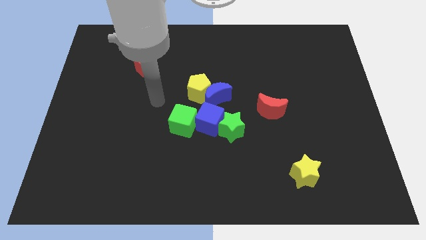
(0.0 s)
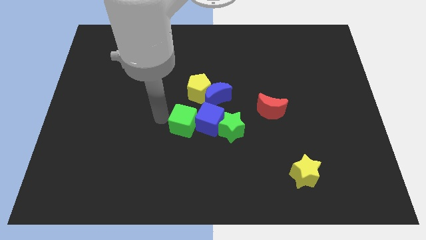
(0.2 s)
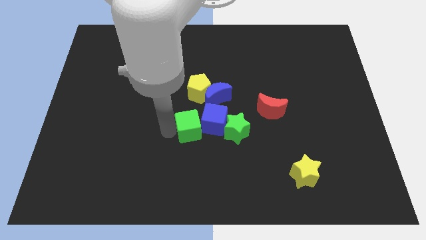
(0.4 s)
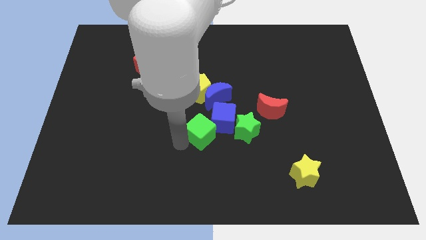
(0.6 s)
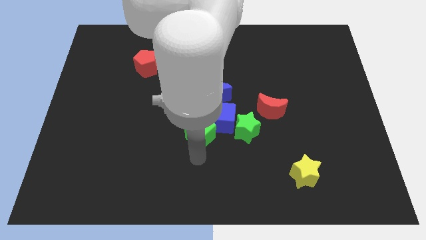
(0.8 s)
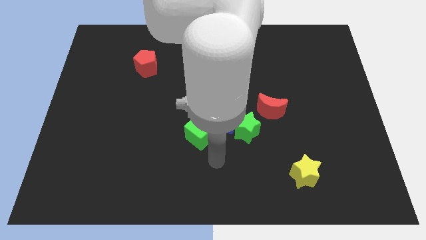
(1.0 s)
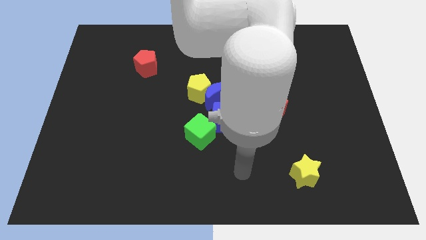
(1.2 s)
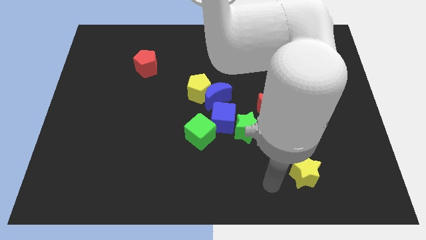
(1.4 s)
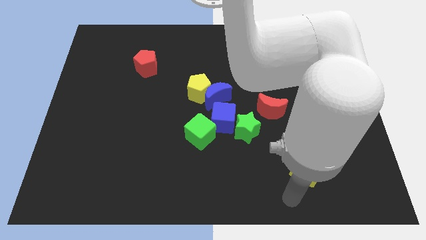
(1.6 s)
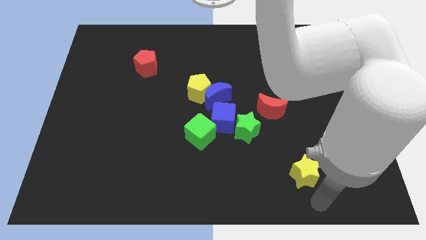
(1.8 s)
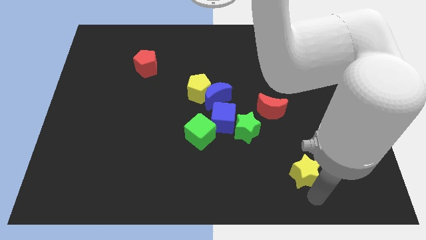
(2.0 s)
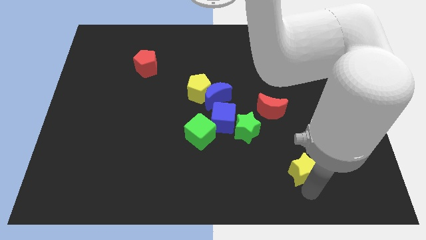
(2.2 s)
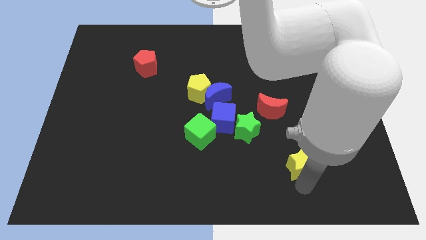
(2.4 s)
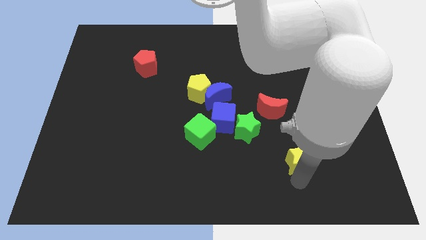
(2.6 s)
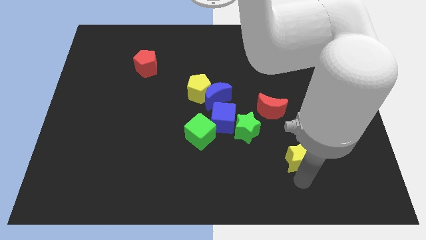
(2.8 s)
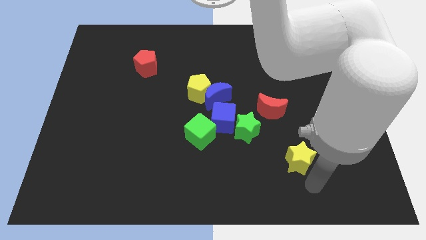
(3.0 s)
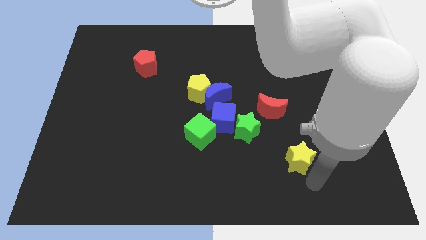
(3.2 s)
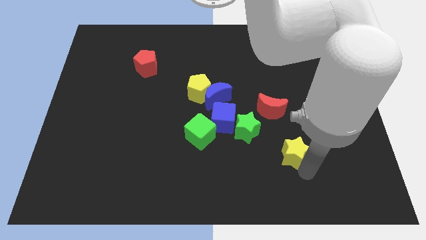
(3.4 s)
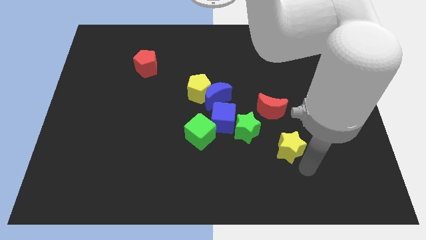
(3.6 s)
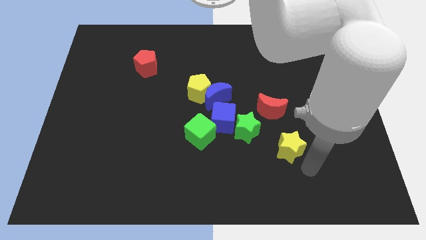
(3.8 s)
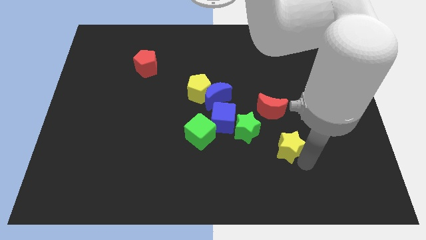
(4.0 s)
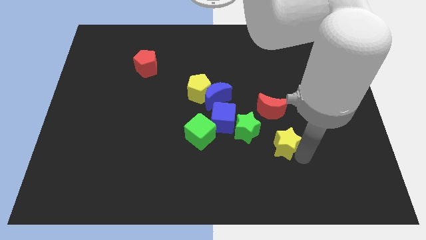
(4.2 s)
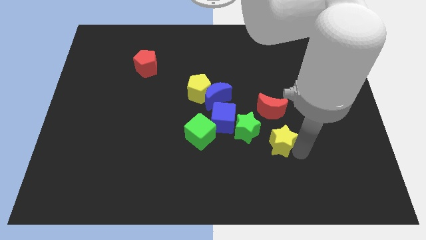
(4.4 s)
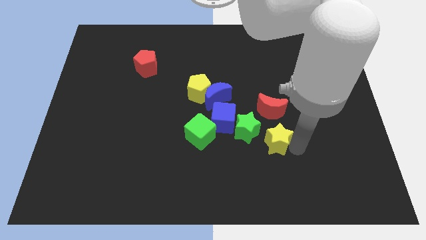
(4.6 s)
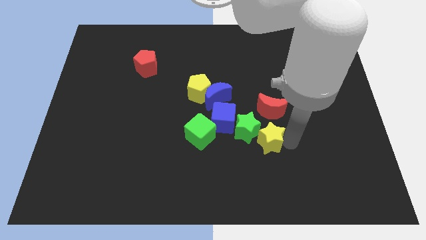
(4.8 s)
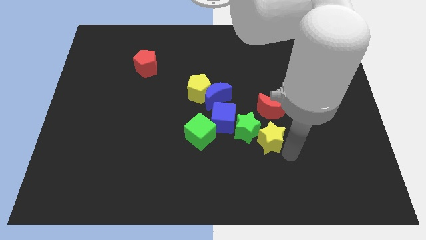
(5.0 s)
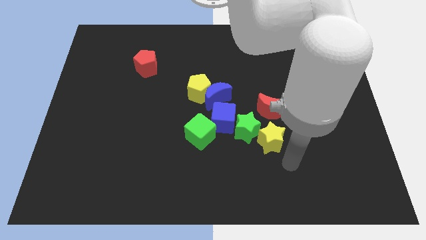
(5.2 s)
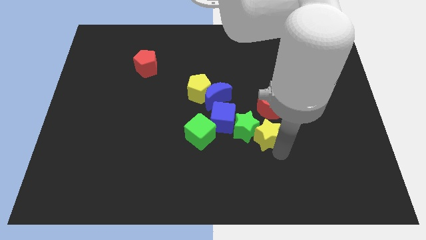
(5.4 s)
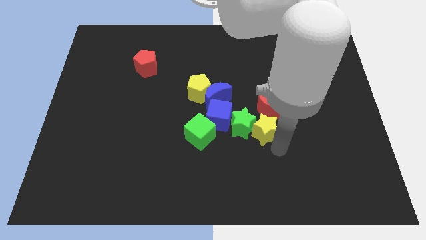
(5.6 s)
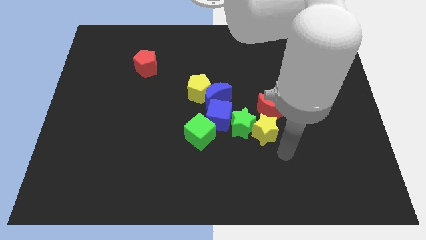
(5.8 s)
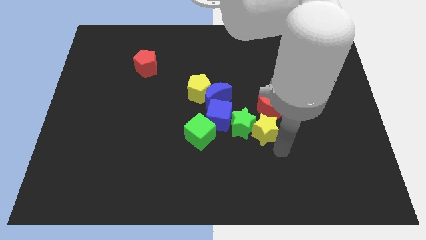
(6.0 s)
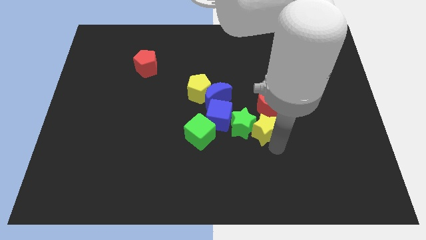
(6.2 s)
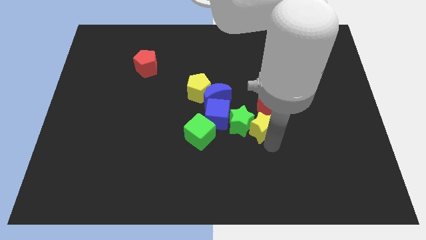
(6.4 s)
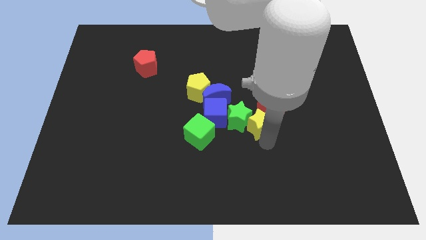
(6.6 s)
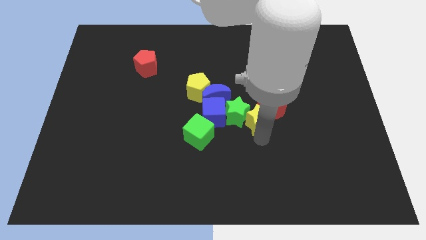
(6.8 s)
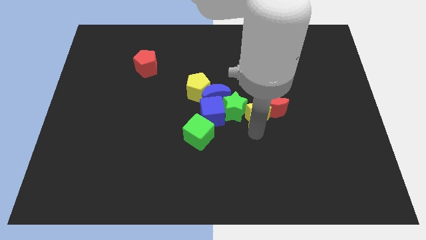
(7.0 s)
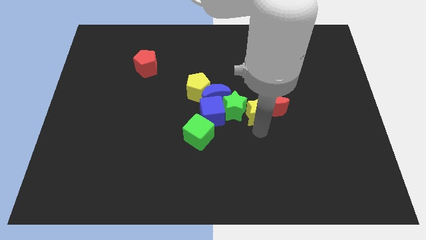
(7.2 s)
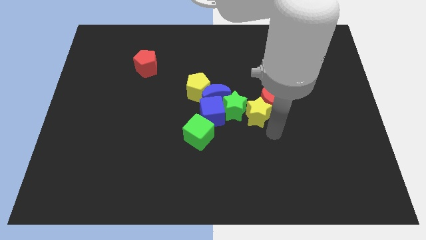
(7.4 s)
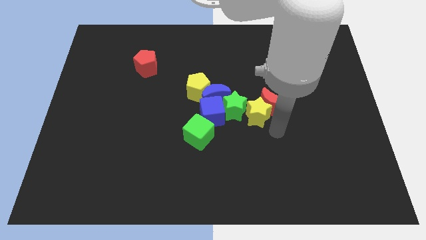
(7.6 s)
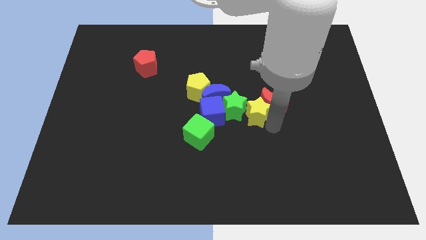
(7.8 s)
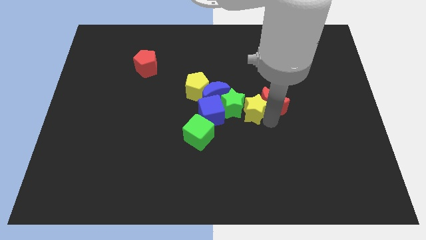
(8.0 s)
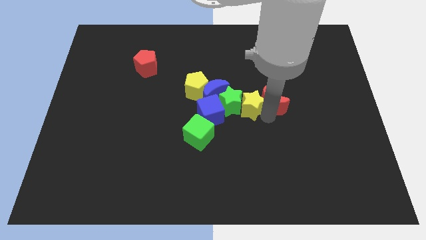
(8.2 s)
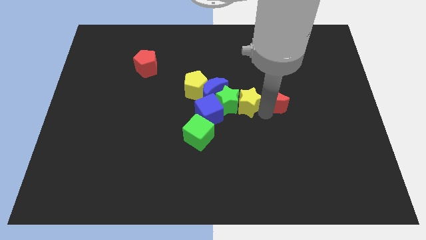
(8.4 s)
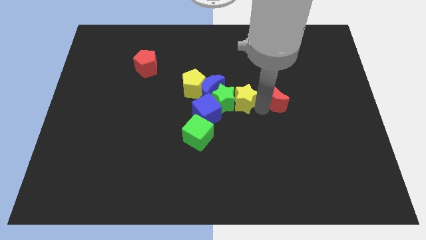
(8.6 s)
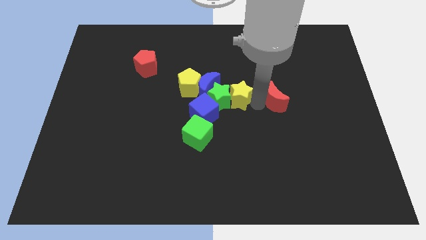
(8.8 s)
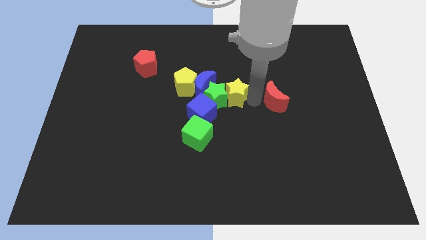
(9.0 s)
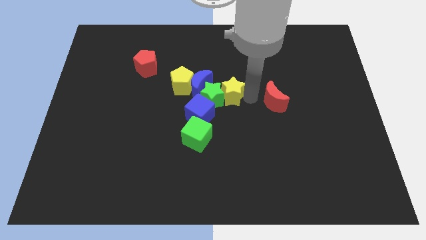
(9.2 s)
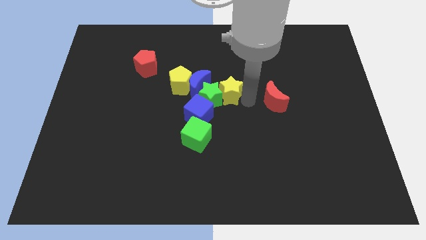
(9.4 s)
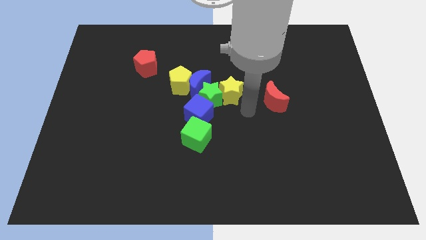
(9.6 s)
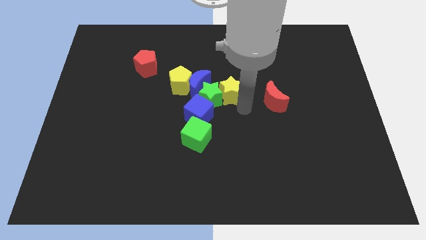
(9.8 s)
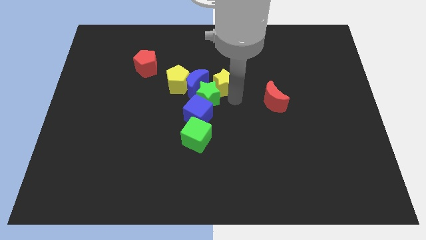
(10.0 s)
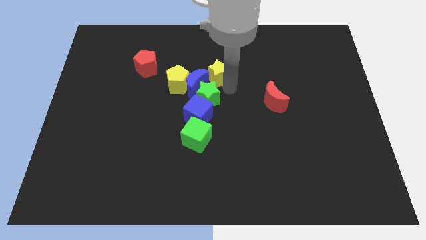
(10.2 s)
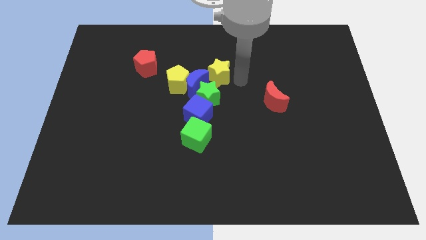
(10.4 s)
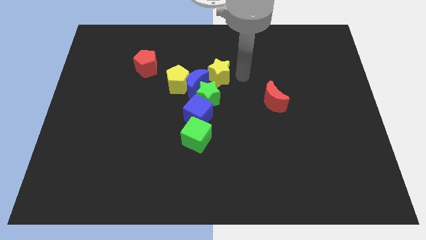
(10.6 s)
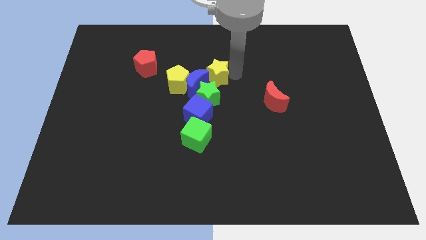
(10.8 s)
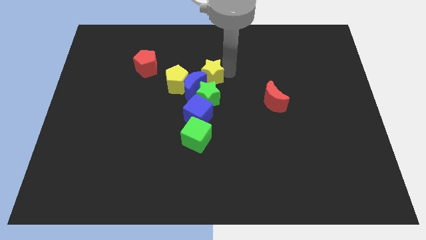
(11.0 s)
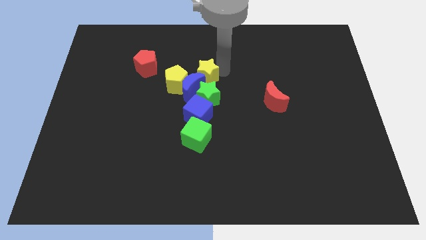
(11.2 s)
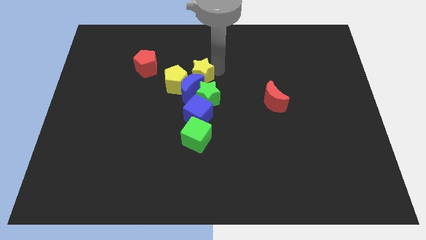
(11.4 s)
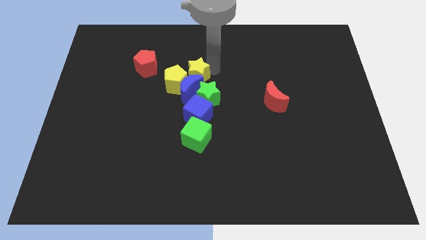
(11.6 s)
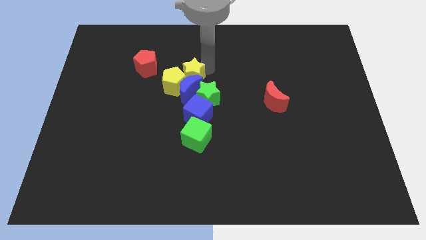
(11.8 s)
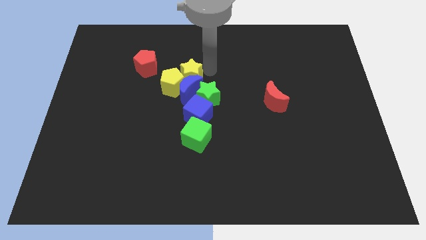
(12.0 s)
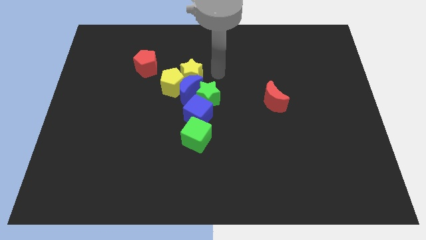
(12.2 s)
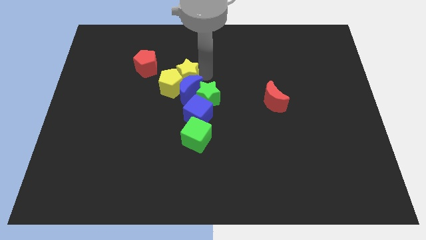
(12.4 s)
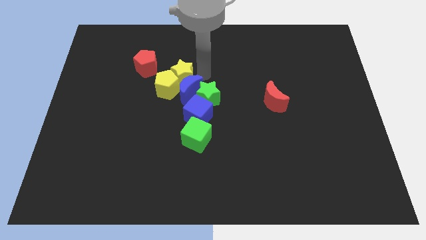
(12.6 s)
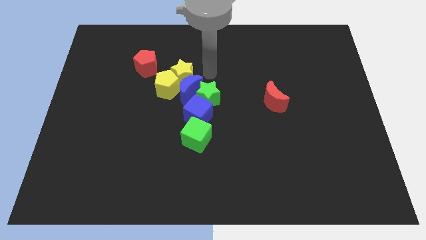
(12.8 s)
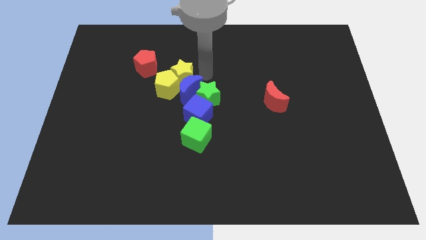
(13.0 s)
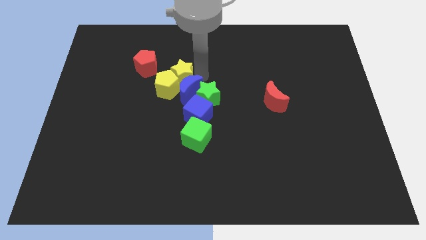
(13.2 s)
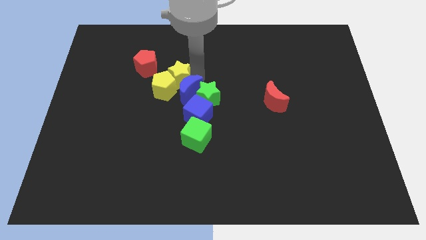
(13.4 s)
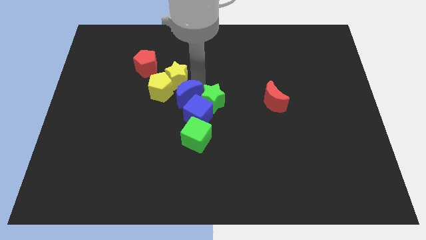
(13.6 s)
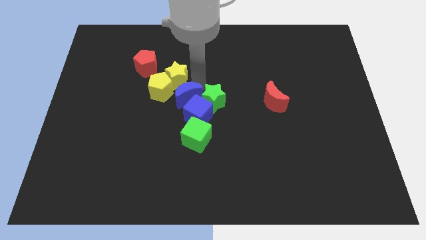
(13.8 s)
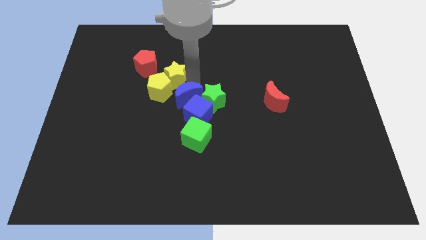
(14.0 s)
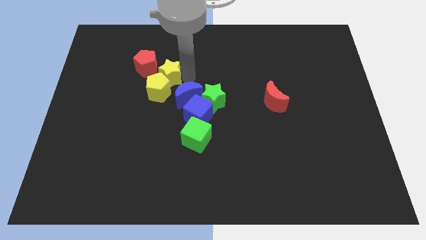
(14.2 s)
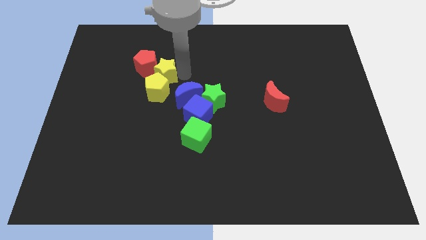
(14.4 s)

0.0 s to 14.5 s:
put the yellow star next to the red pentagon

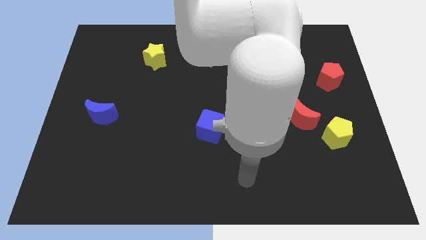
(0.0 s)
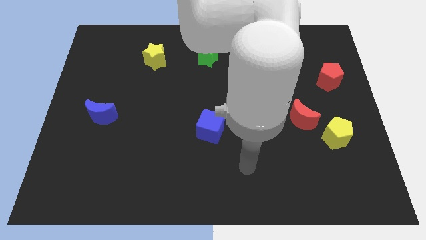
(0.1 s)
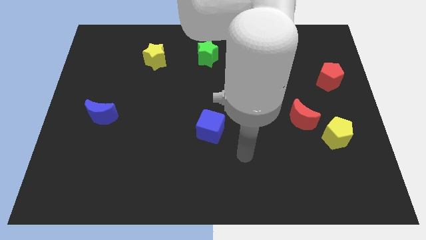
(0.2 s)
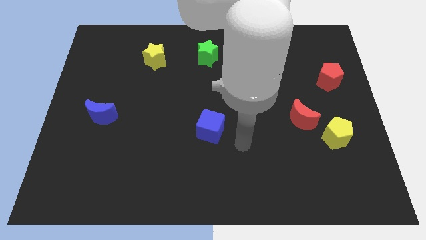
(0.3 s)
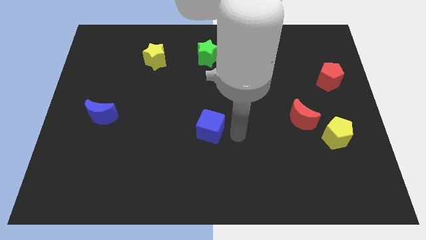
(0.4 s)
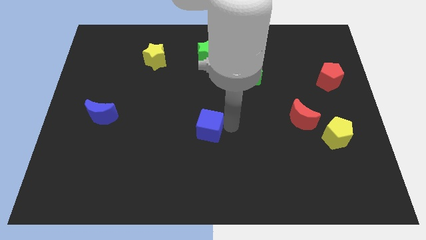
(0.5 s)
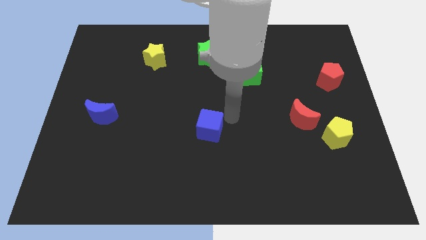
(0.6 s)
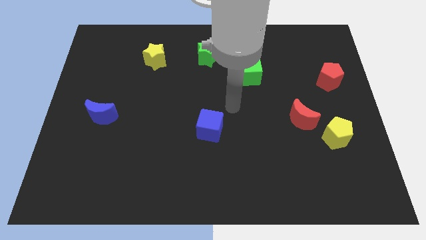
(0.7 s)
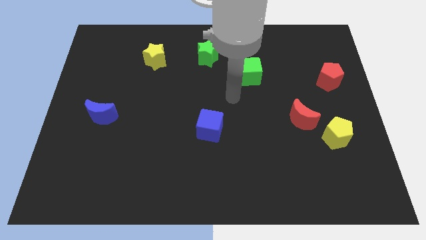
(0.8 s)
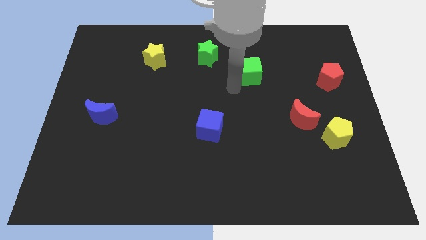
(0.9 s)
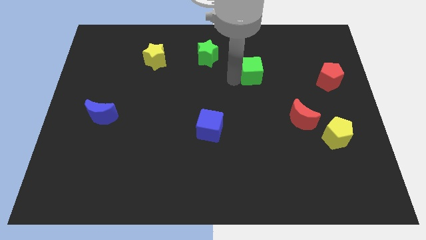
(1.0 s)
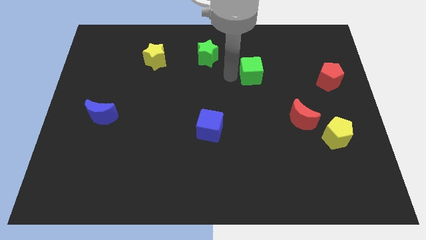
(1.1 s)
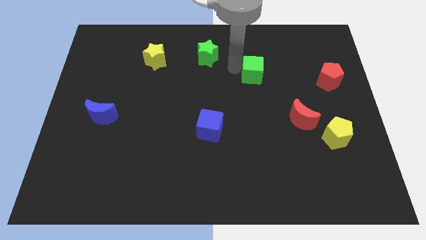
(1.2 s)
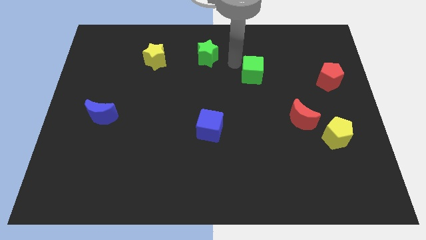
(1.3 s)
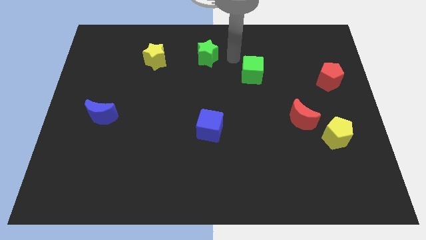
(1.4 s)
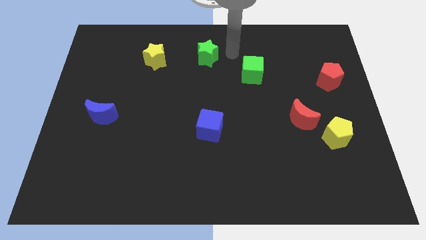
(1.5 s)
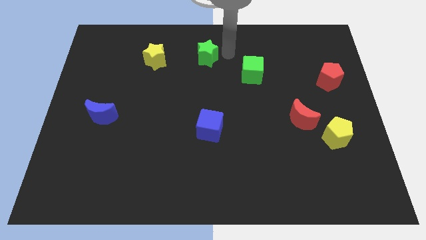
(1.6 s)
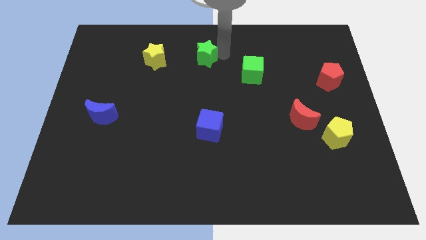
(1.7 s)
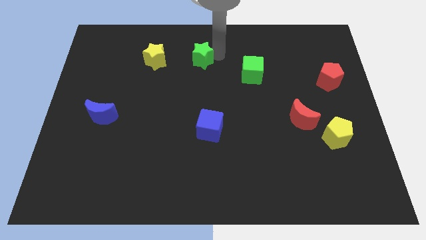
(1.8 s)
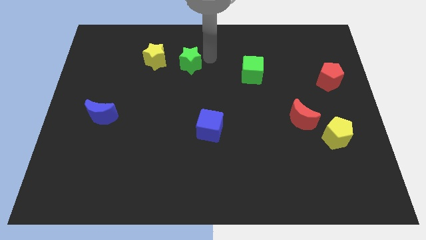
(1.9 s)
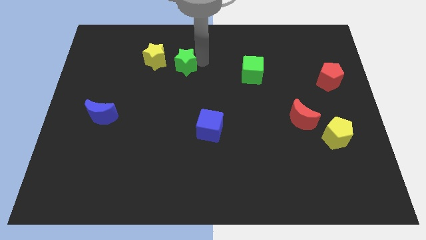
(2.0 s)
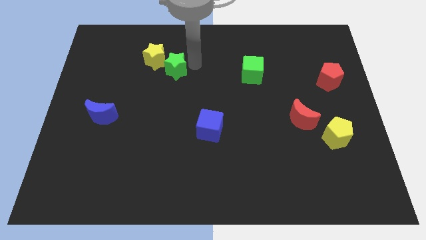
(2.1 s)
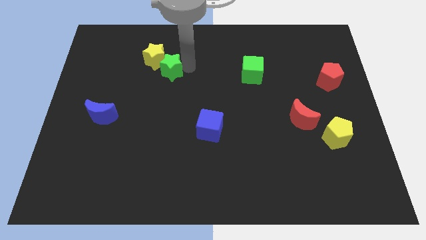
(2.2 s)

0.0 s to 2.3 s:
push the green star towards the yellow star
